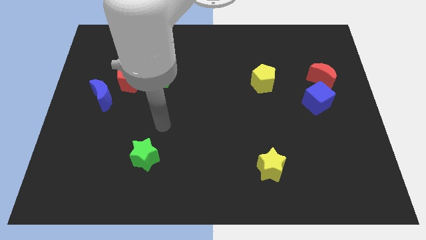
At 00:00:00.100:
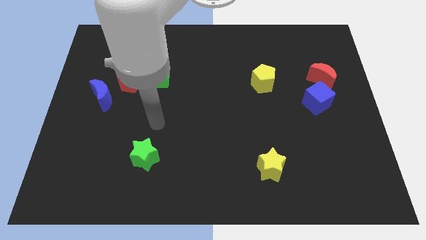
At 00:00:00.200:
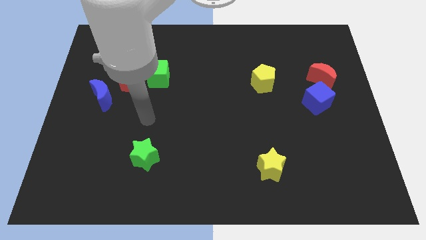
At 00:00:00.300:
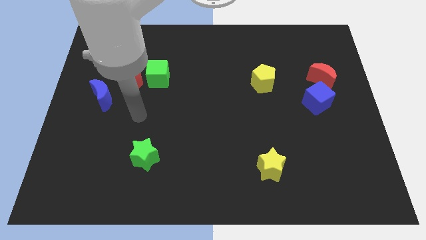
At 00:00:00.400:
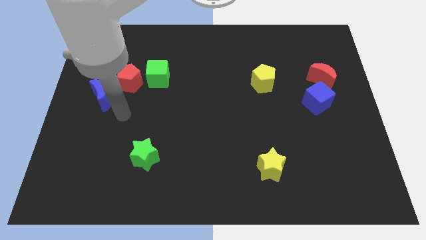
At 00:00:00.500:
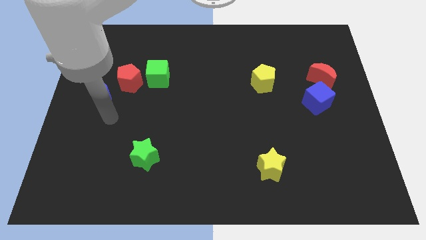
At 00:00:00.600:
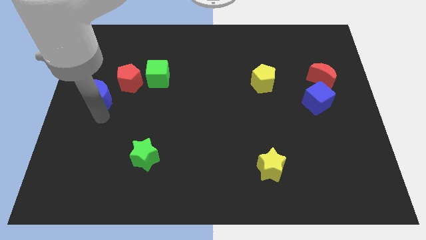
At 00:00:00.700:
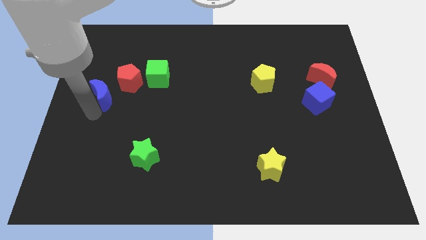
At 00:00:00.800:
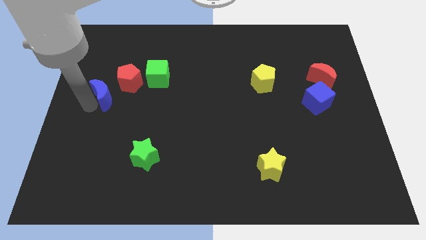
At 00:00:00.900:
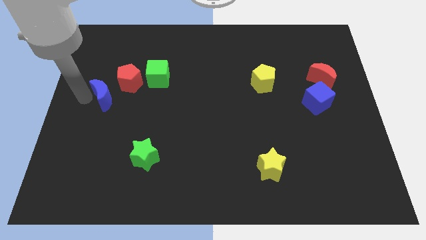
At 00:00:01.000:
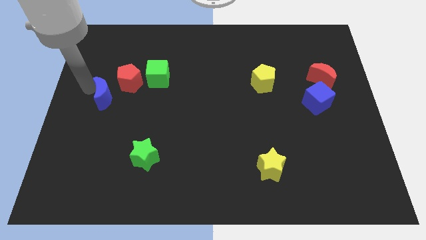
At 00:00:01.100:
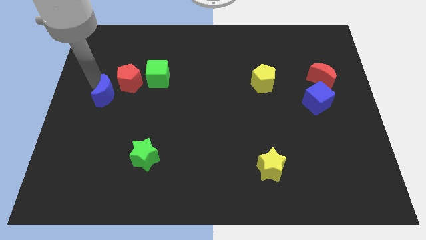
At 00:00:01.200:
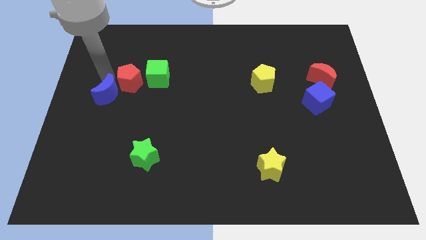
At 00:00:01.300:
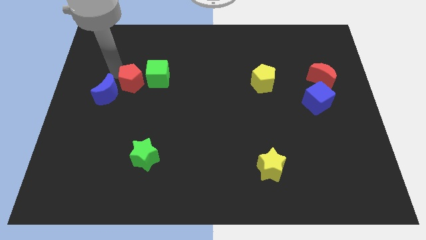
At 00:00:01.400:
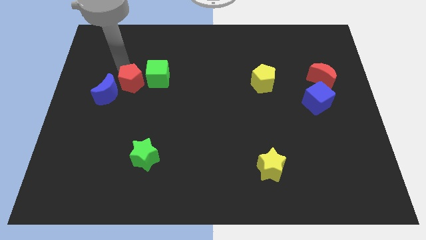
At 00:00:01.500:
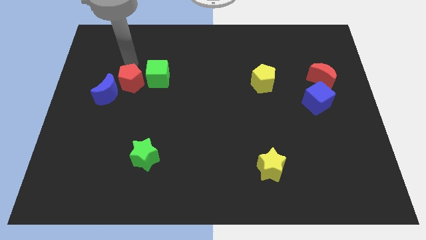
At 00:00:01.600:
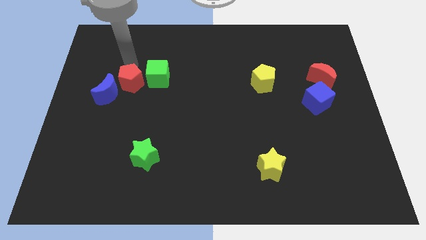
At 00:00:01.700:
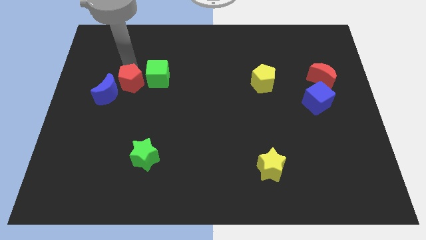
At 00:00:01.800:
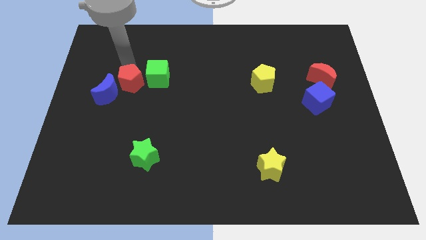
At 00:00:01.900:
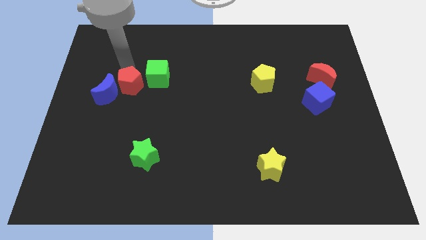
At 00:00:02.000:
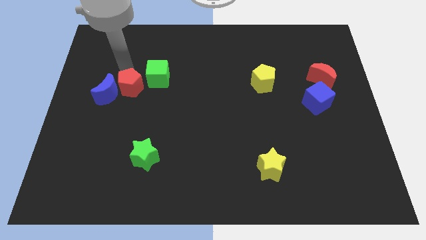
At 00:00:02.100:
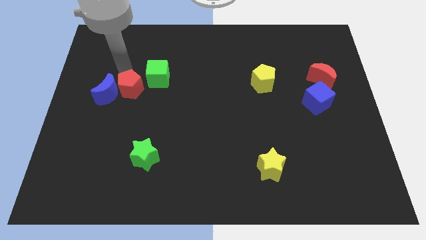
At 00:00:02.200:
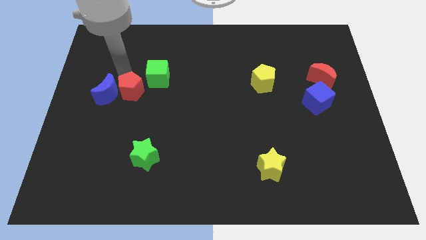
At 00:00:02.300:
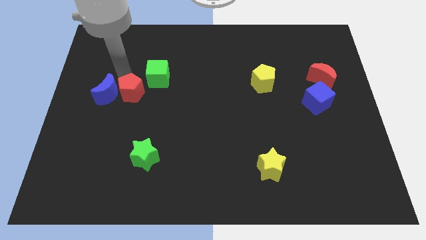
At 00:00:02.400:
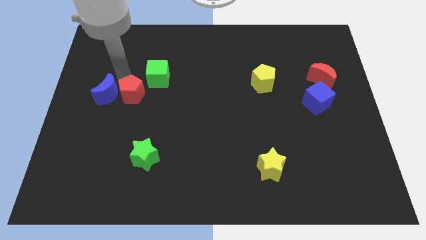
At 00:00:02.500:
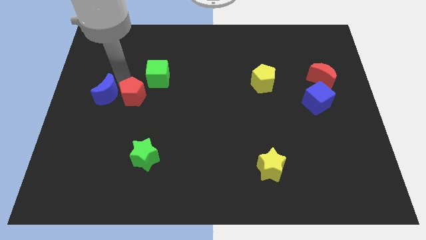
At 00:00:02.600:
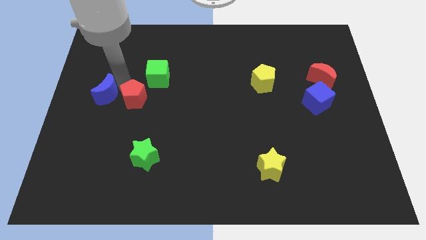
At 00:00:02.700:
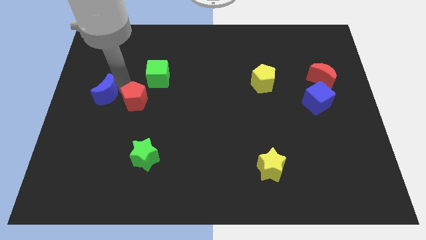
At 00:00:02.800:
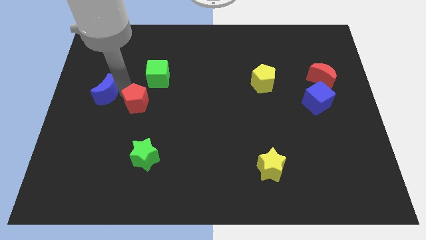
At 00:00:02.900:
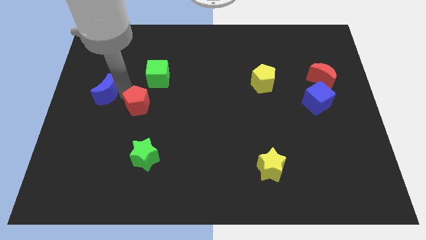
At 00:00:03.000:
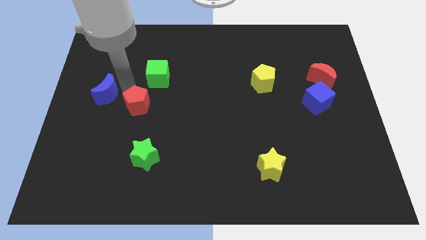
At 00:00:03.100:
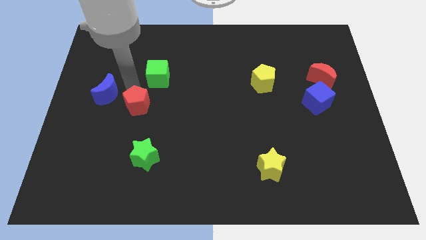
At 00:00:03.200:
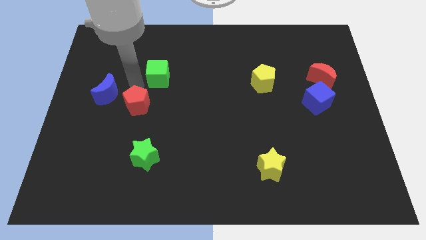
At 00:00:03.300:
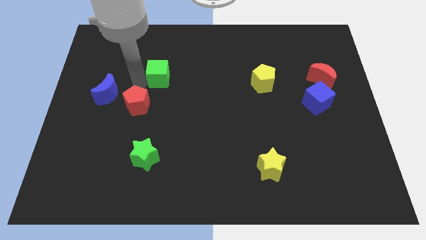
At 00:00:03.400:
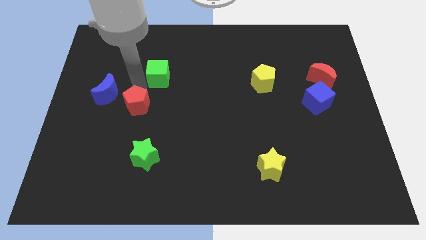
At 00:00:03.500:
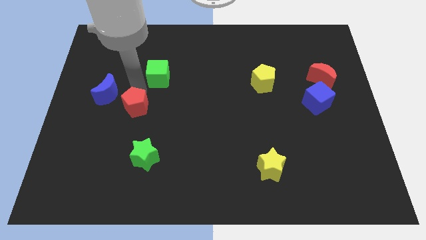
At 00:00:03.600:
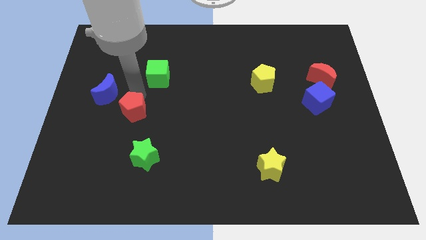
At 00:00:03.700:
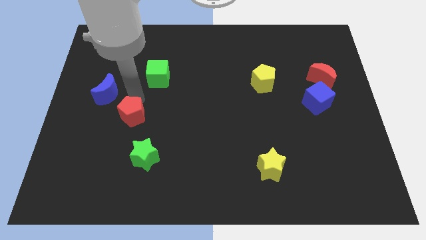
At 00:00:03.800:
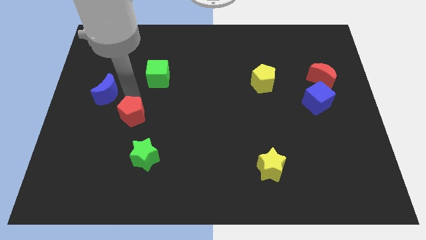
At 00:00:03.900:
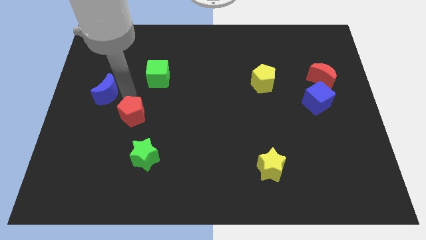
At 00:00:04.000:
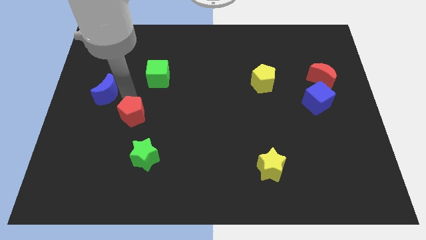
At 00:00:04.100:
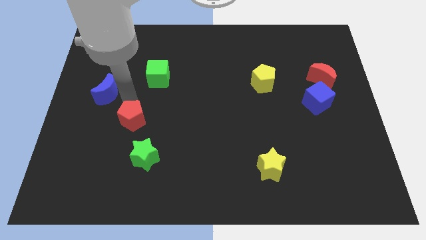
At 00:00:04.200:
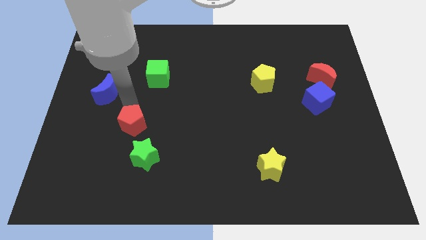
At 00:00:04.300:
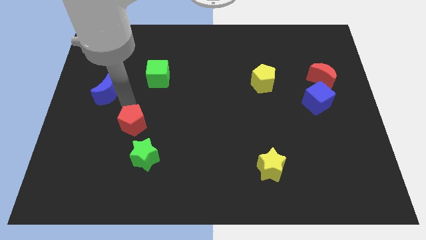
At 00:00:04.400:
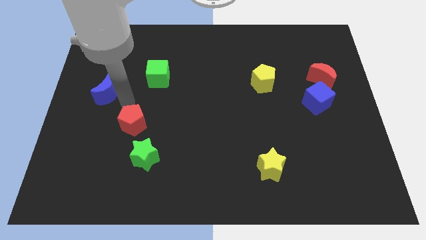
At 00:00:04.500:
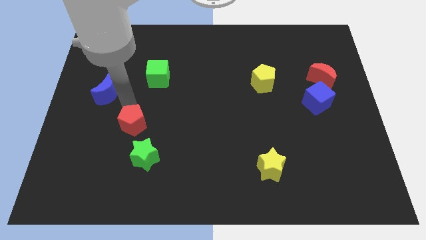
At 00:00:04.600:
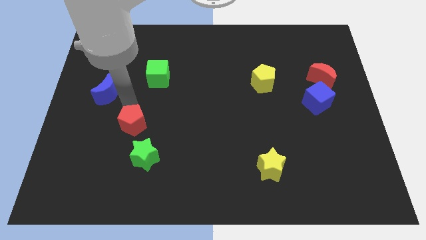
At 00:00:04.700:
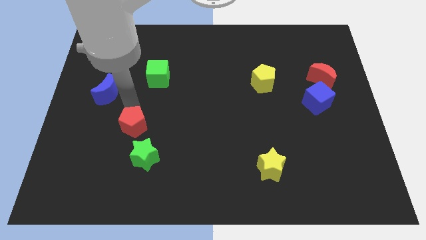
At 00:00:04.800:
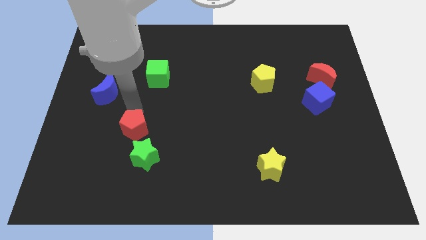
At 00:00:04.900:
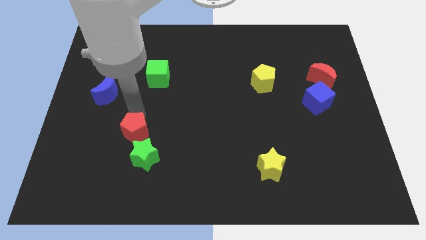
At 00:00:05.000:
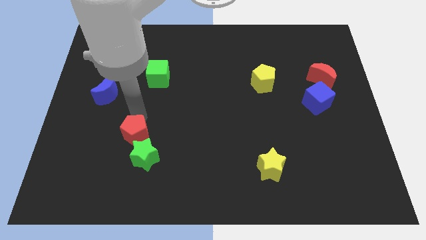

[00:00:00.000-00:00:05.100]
slide the red pentagon towards the green star

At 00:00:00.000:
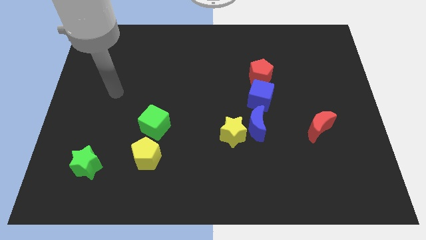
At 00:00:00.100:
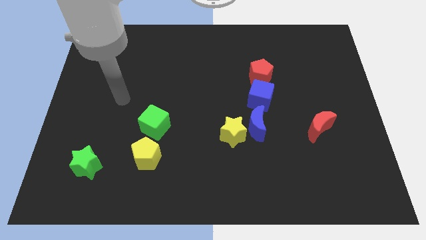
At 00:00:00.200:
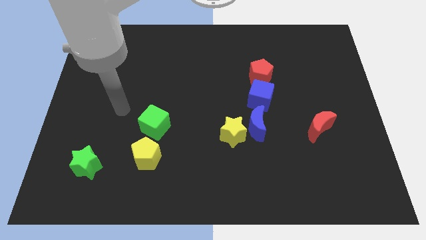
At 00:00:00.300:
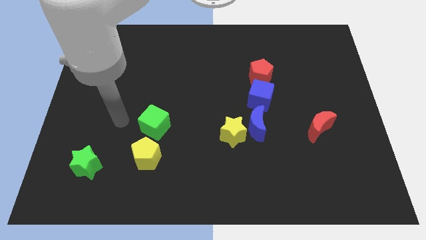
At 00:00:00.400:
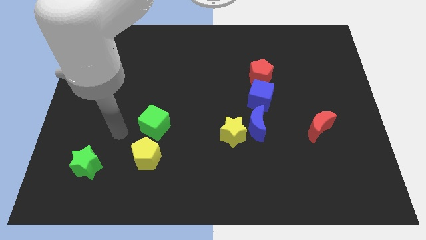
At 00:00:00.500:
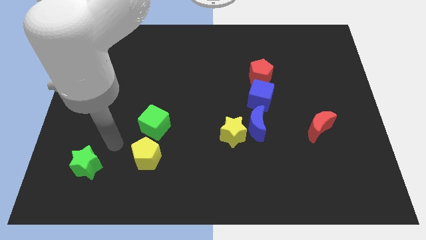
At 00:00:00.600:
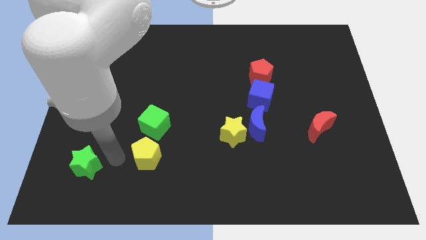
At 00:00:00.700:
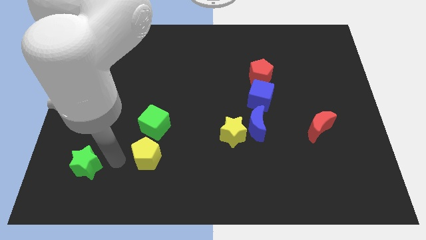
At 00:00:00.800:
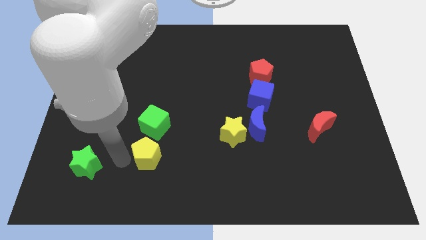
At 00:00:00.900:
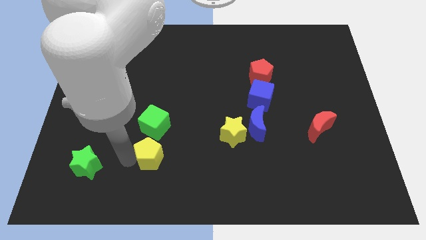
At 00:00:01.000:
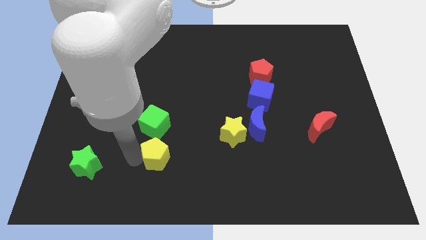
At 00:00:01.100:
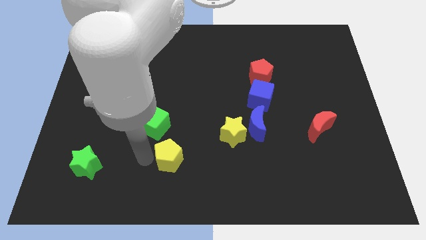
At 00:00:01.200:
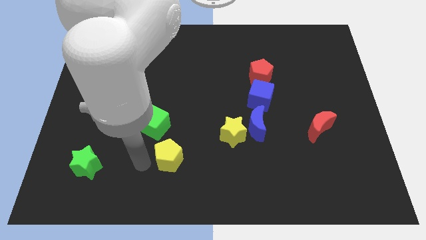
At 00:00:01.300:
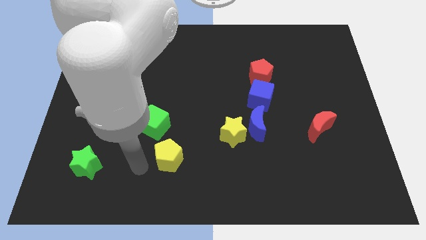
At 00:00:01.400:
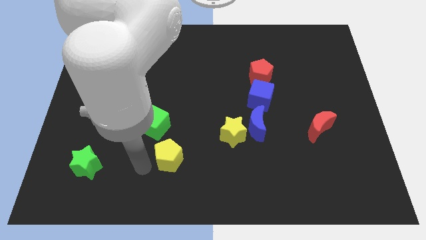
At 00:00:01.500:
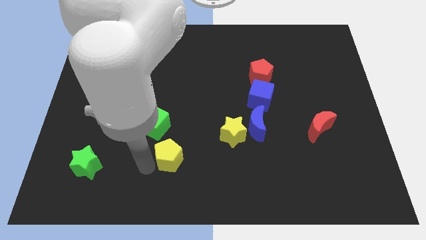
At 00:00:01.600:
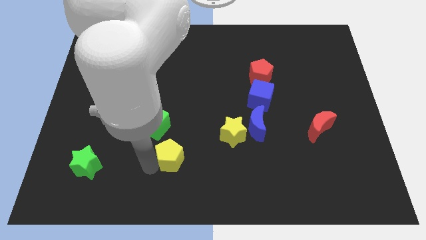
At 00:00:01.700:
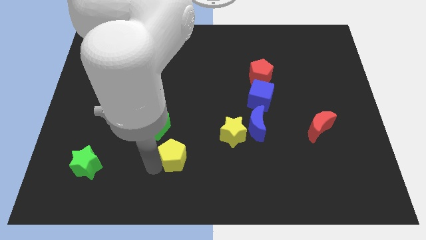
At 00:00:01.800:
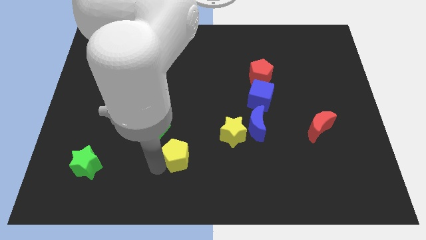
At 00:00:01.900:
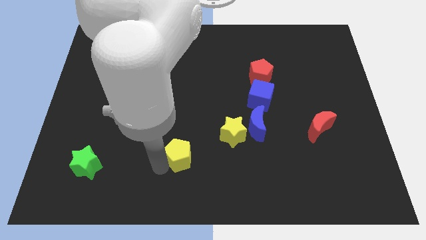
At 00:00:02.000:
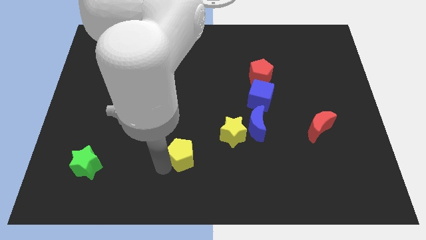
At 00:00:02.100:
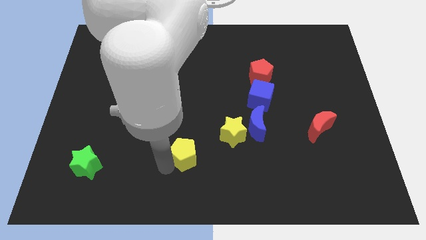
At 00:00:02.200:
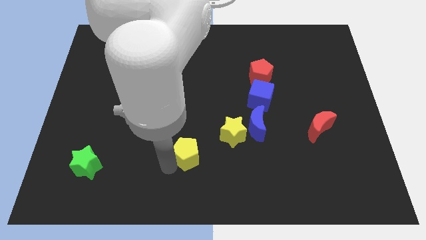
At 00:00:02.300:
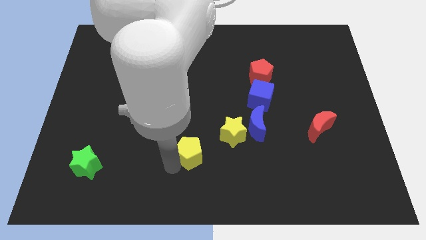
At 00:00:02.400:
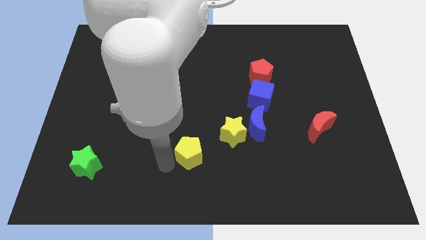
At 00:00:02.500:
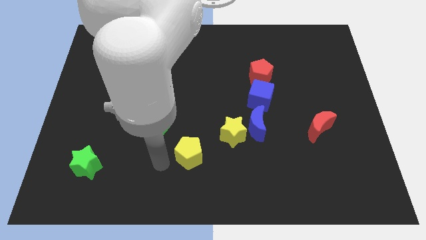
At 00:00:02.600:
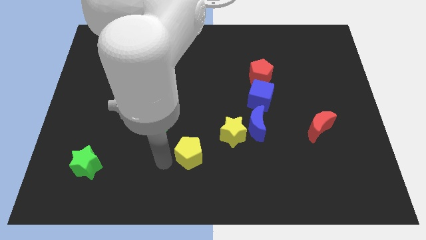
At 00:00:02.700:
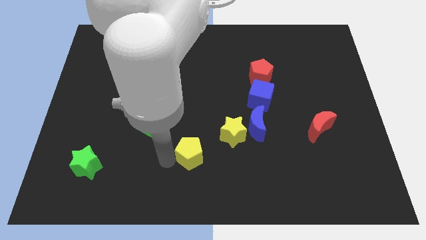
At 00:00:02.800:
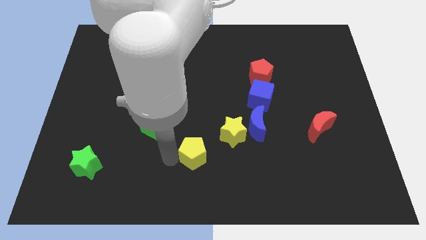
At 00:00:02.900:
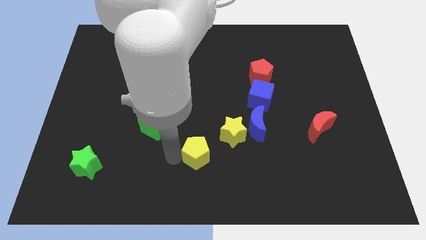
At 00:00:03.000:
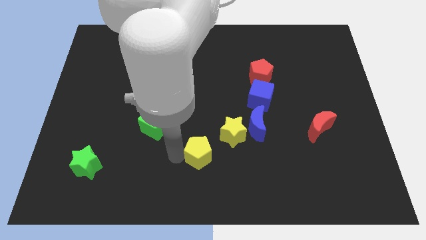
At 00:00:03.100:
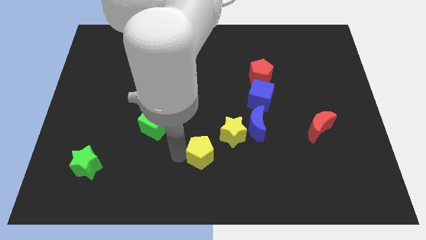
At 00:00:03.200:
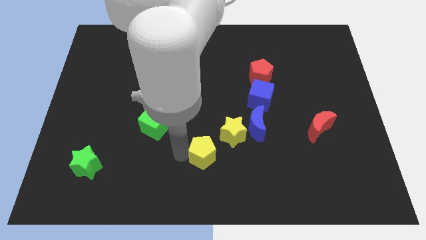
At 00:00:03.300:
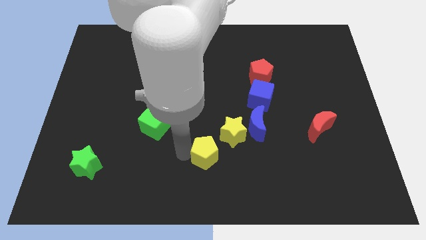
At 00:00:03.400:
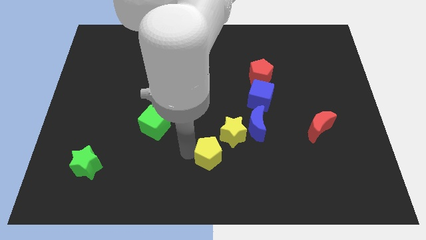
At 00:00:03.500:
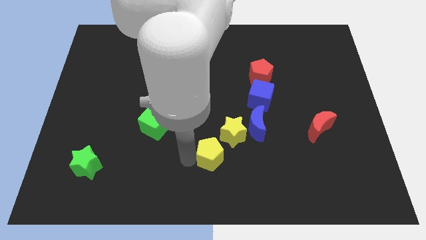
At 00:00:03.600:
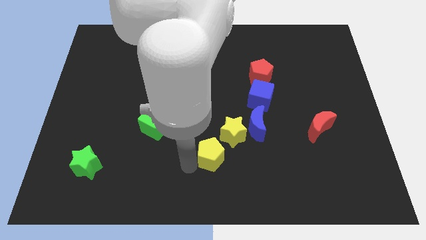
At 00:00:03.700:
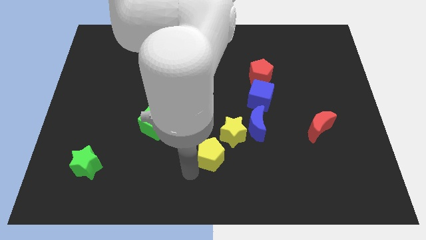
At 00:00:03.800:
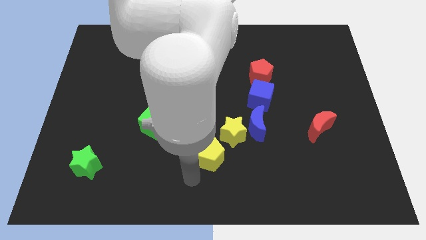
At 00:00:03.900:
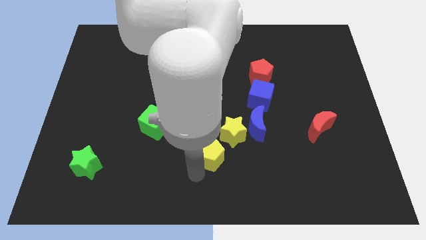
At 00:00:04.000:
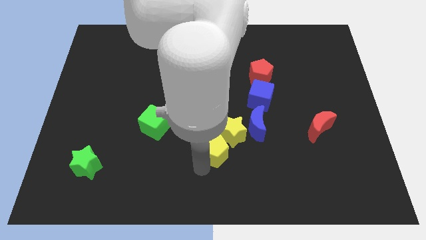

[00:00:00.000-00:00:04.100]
put the yellow pentagon next to the yellow star
